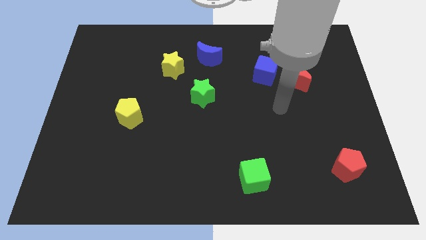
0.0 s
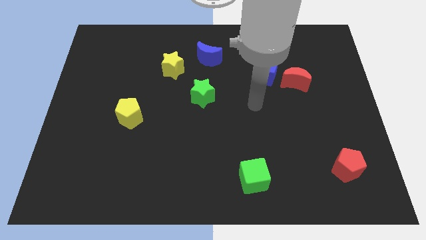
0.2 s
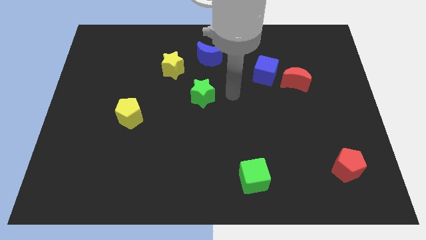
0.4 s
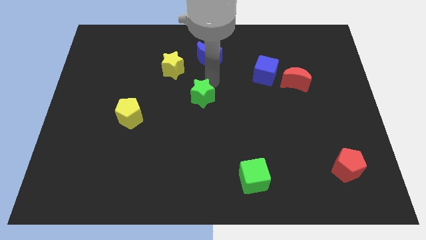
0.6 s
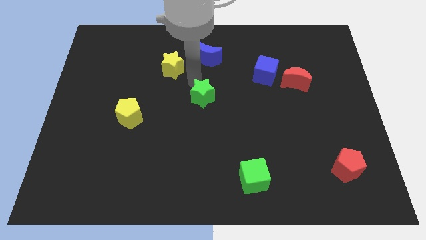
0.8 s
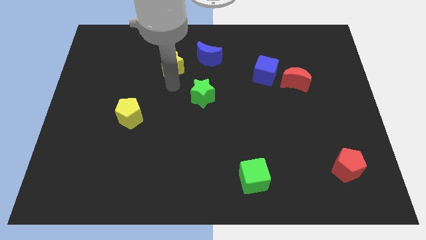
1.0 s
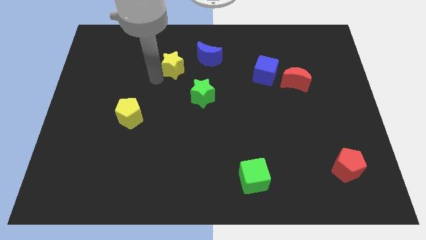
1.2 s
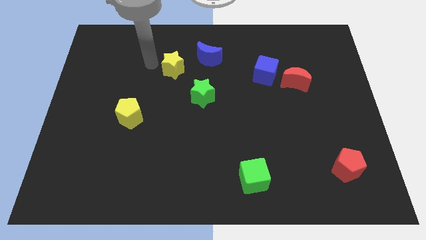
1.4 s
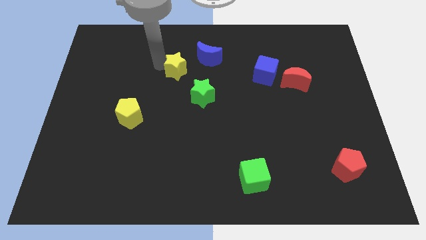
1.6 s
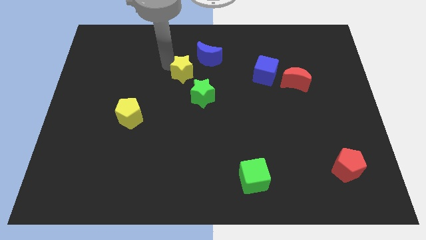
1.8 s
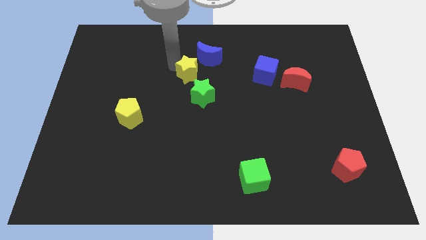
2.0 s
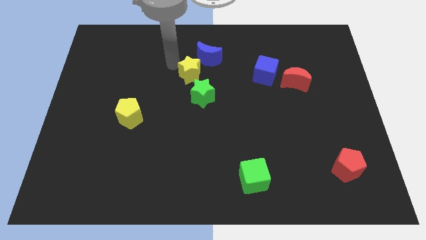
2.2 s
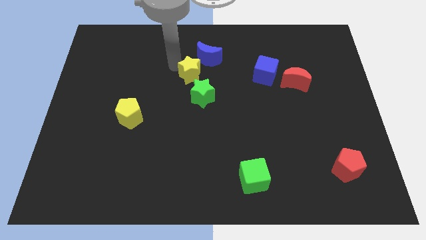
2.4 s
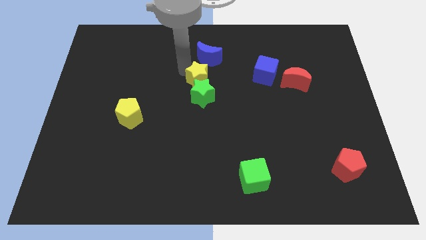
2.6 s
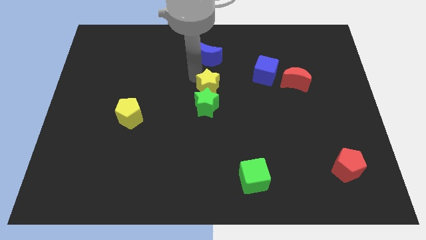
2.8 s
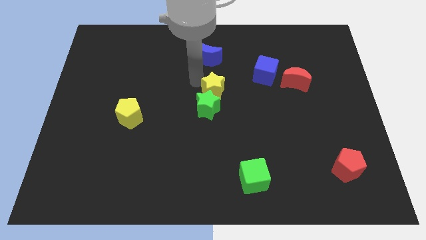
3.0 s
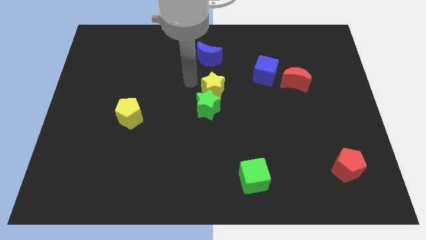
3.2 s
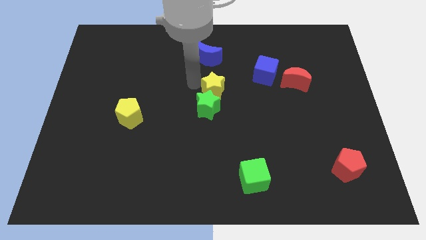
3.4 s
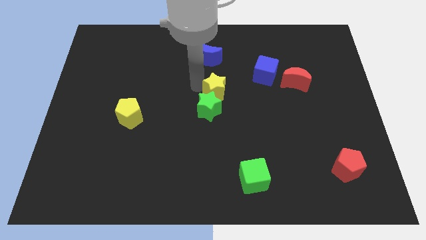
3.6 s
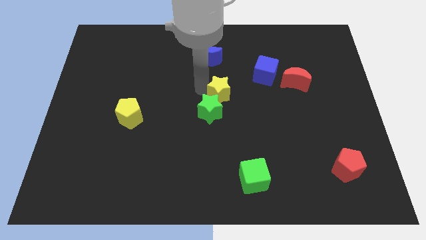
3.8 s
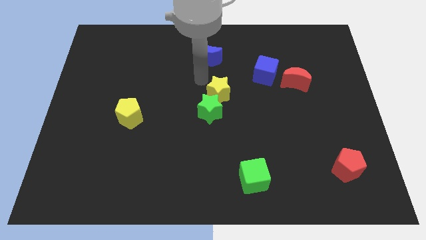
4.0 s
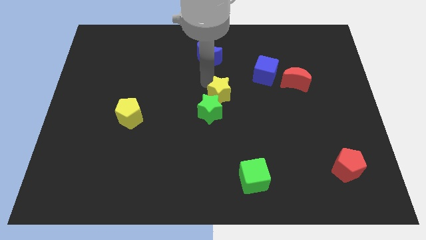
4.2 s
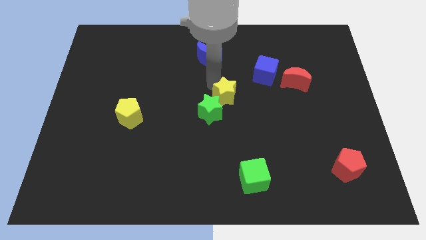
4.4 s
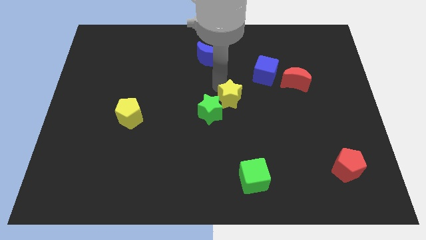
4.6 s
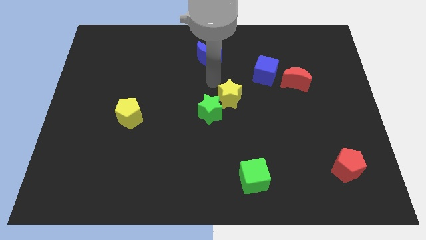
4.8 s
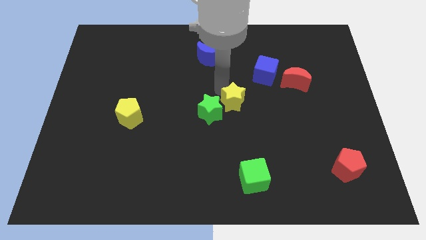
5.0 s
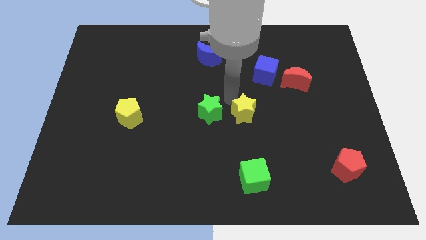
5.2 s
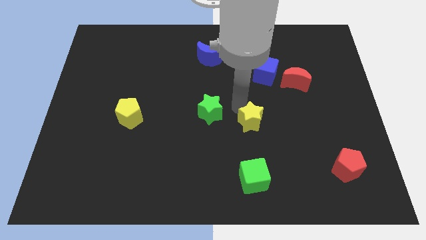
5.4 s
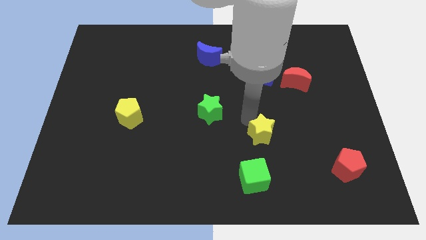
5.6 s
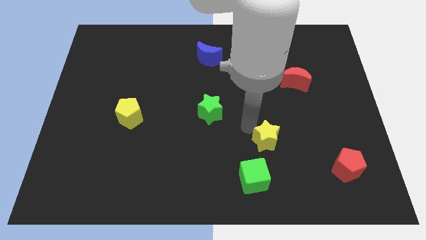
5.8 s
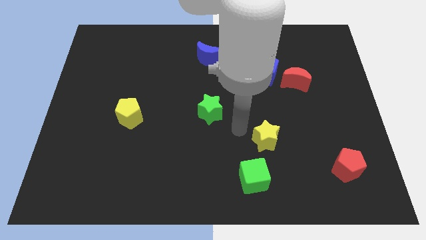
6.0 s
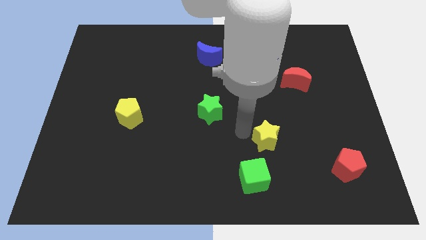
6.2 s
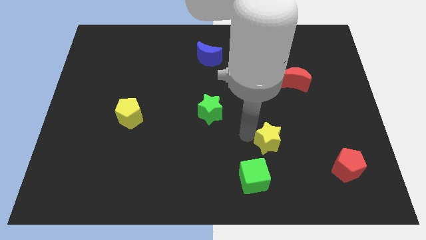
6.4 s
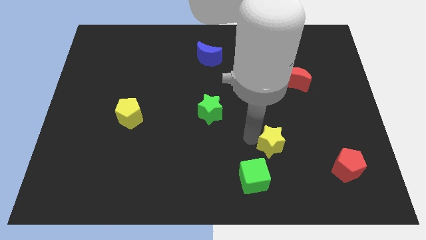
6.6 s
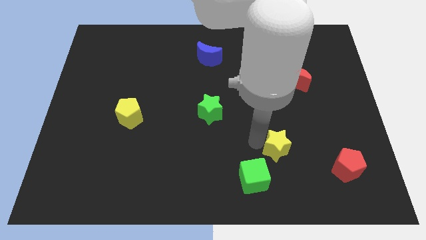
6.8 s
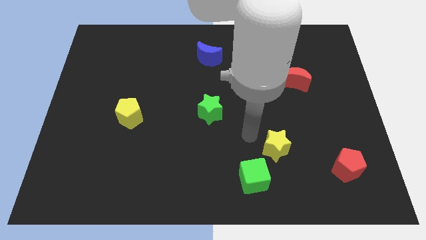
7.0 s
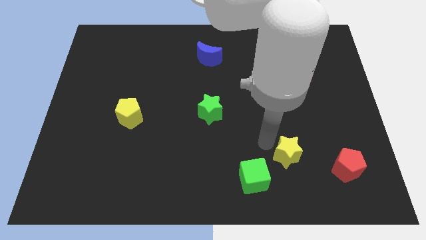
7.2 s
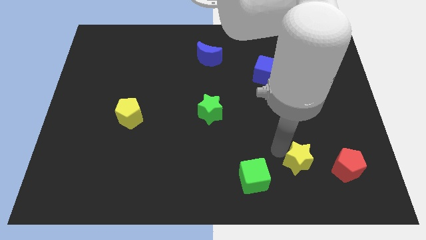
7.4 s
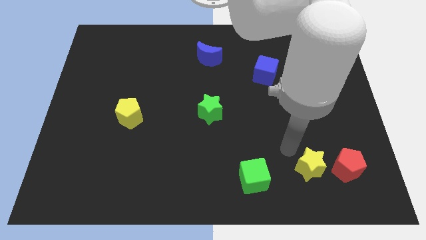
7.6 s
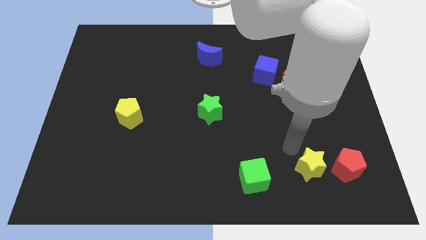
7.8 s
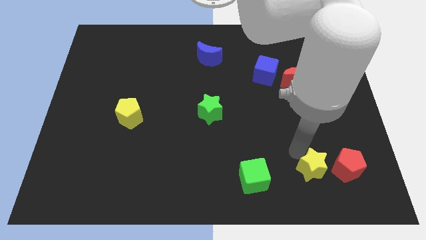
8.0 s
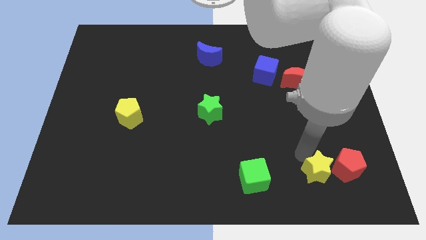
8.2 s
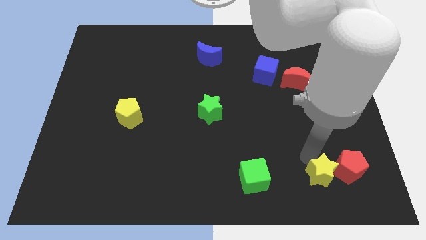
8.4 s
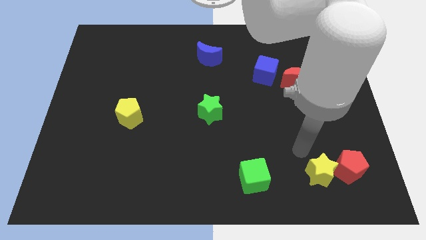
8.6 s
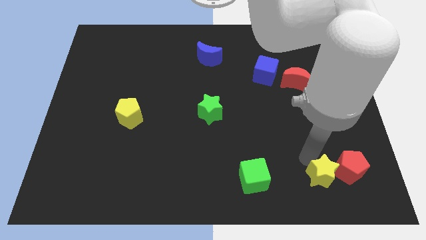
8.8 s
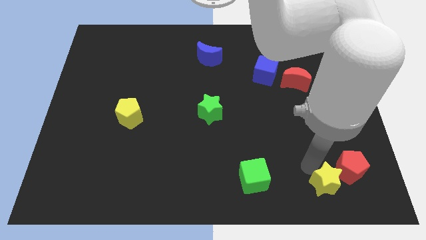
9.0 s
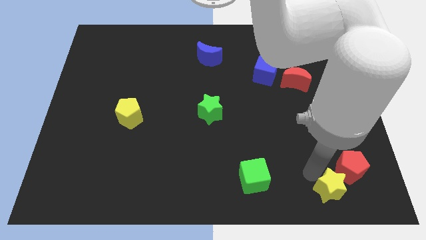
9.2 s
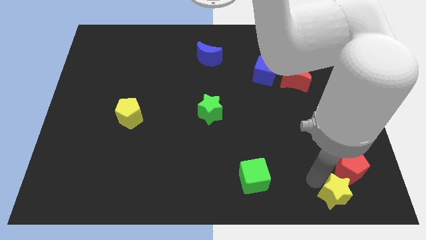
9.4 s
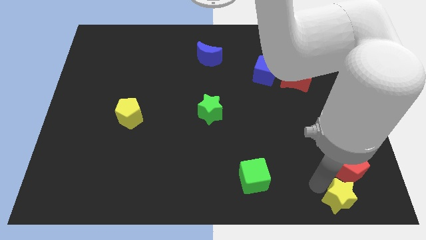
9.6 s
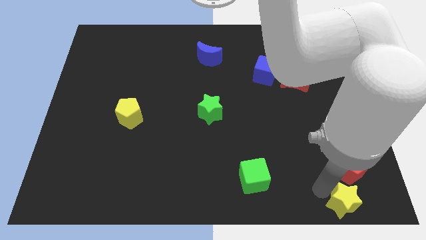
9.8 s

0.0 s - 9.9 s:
put the yellow star to the bottom right of the board

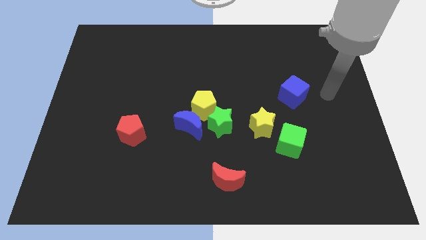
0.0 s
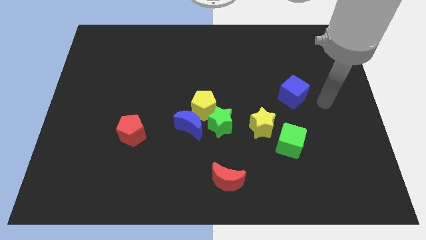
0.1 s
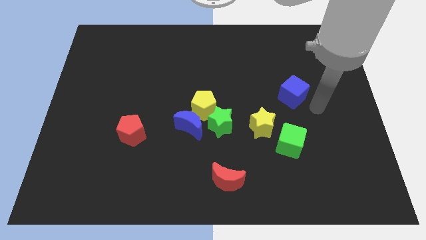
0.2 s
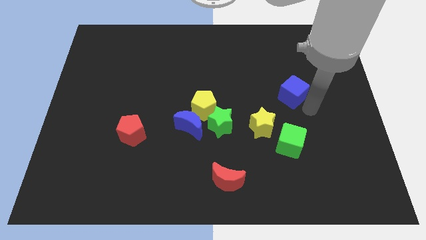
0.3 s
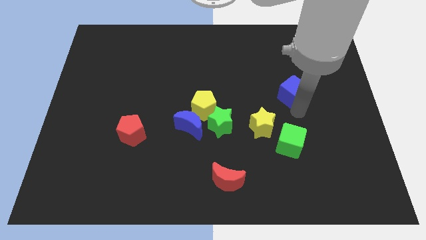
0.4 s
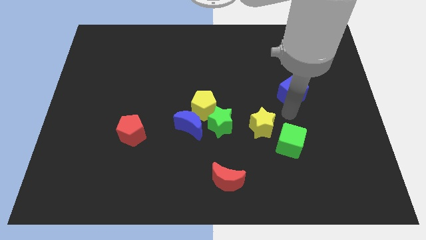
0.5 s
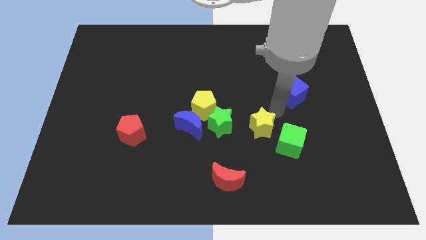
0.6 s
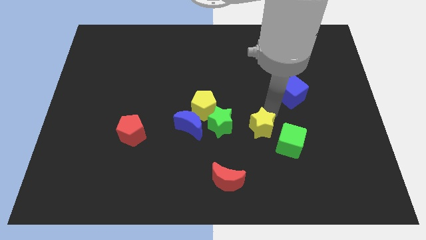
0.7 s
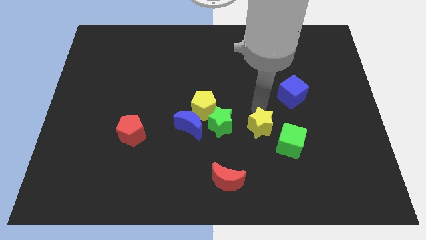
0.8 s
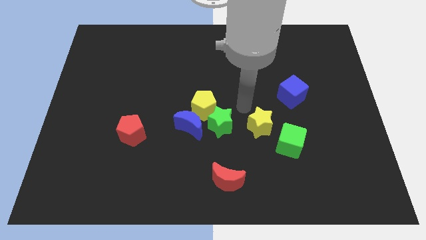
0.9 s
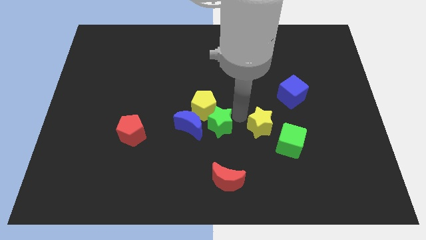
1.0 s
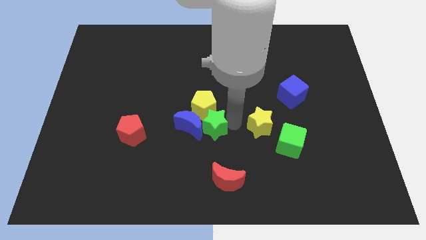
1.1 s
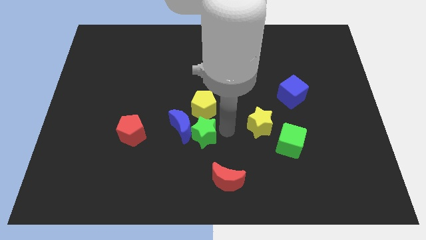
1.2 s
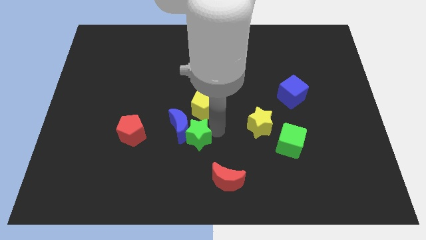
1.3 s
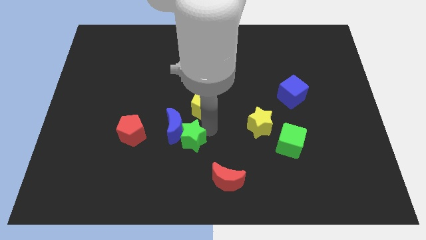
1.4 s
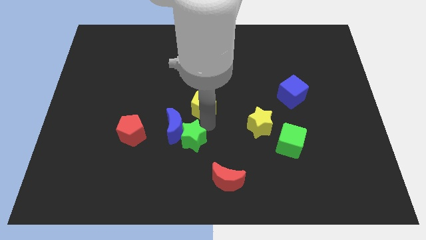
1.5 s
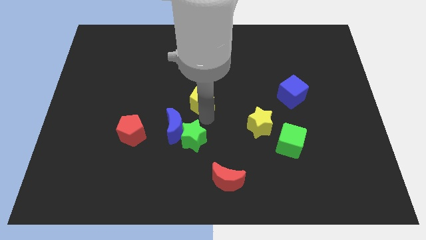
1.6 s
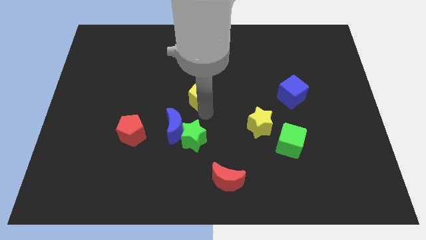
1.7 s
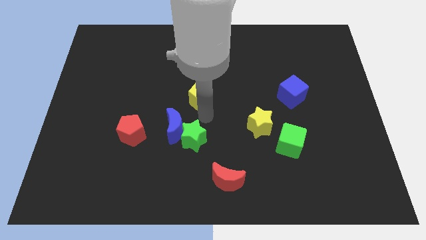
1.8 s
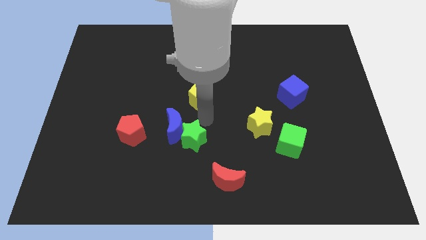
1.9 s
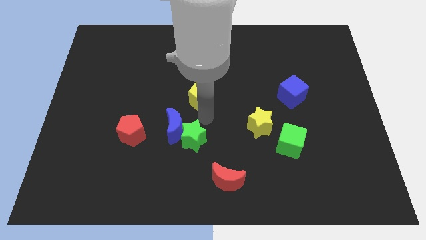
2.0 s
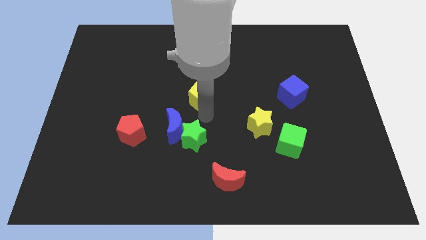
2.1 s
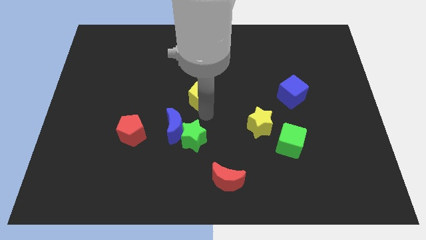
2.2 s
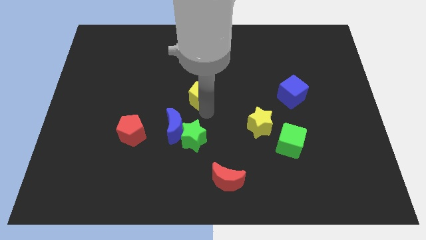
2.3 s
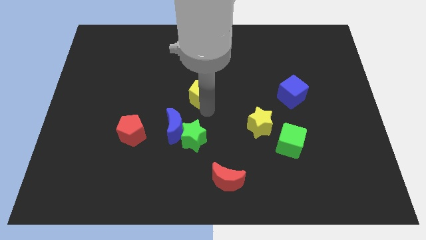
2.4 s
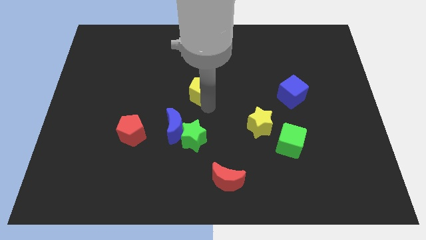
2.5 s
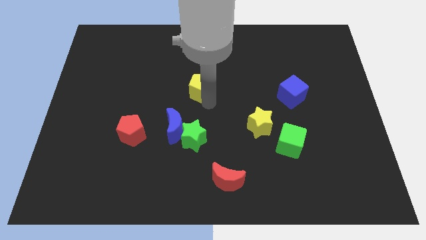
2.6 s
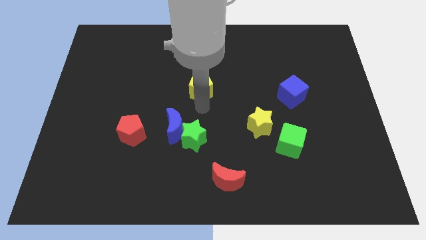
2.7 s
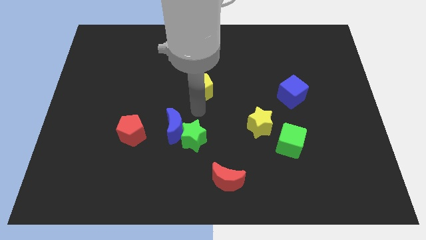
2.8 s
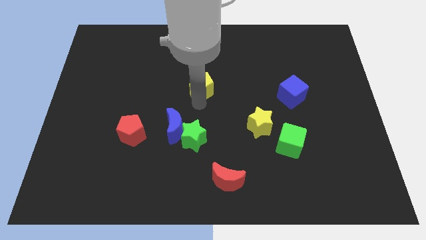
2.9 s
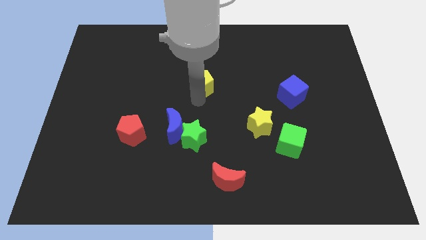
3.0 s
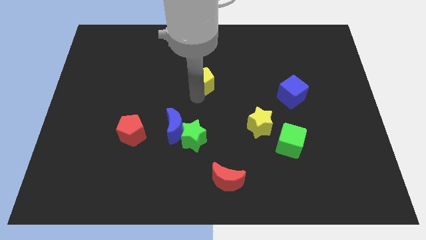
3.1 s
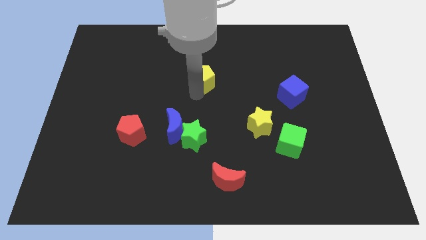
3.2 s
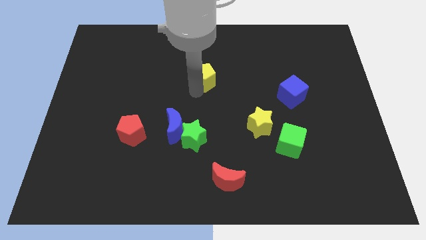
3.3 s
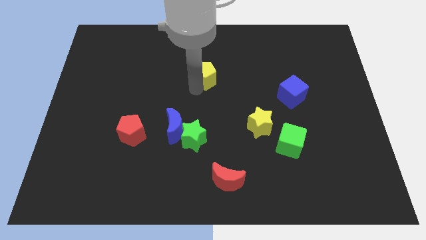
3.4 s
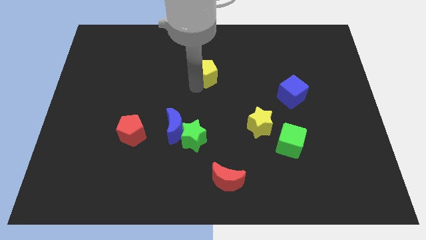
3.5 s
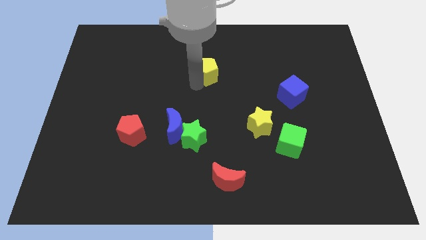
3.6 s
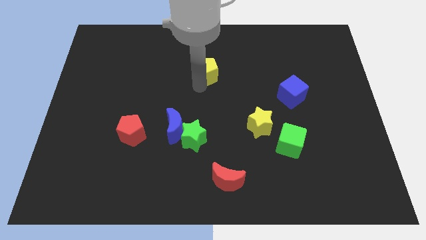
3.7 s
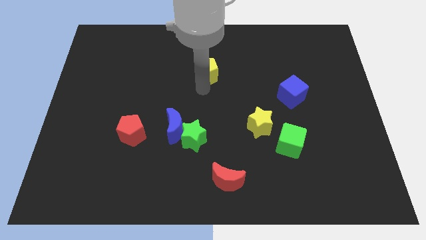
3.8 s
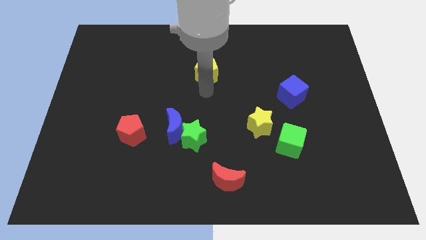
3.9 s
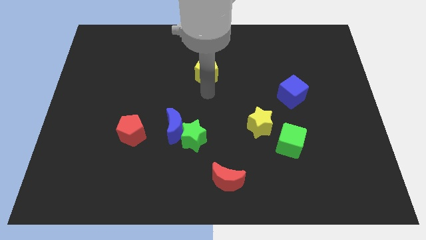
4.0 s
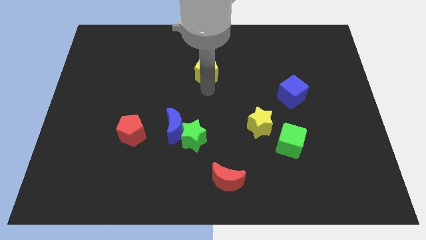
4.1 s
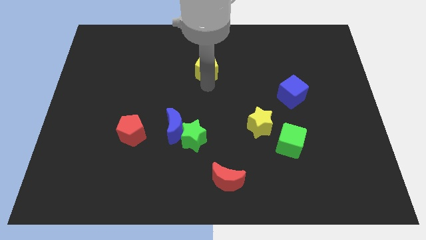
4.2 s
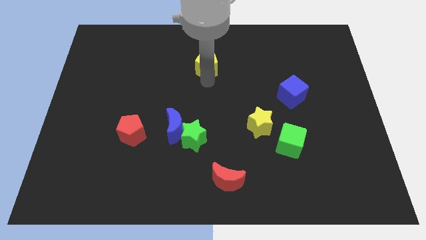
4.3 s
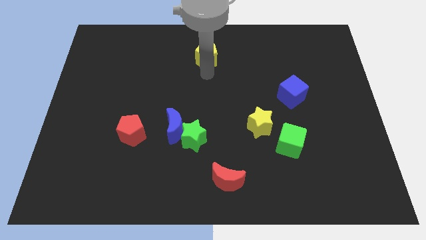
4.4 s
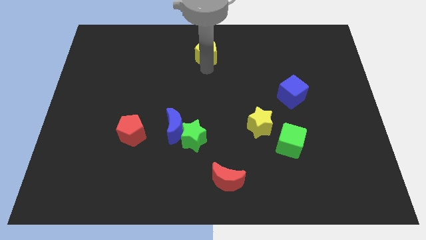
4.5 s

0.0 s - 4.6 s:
slide the yellow pentagon to the top
